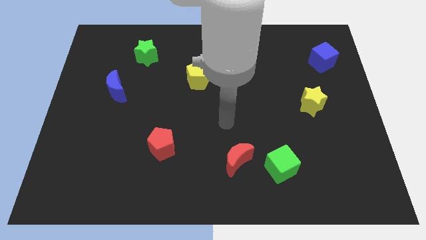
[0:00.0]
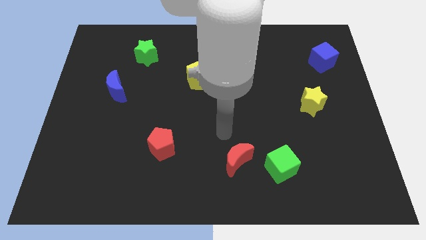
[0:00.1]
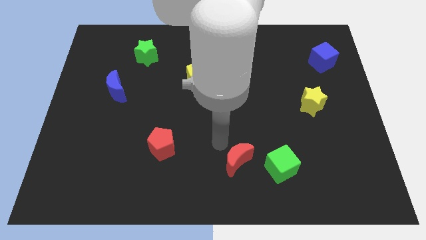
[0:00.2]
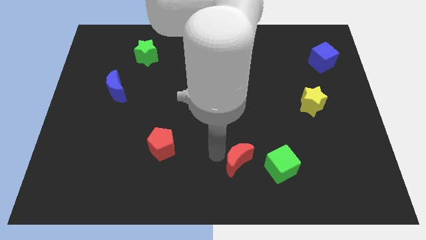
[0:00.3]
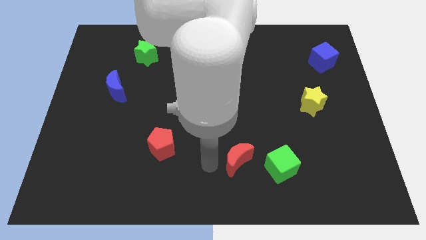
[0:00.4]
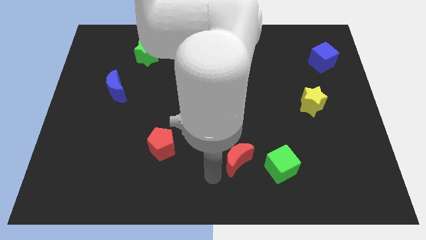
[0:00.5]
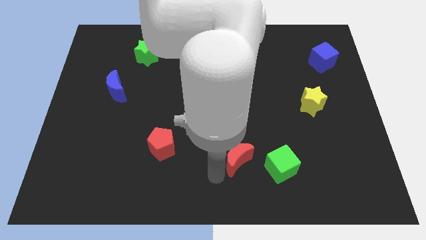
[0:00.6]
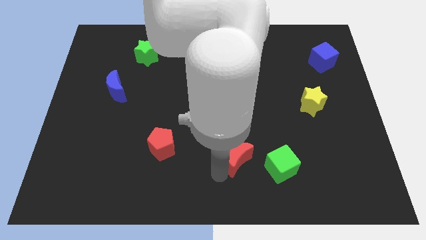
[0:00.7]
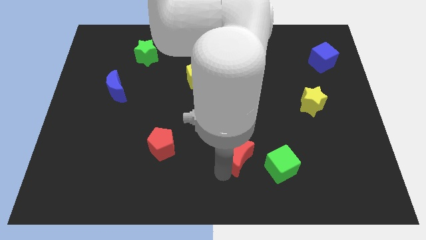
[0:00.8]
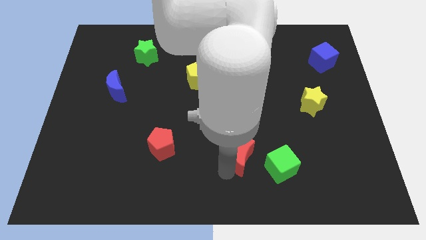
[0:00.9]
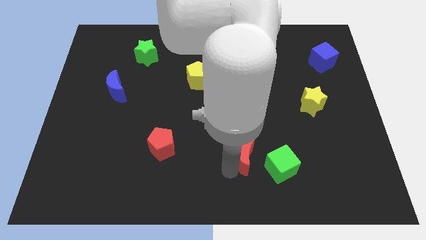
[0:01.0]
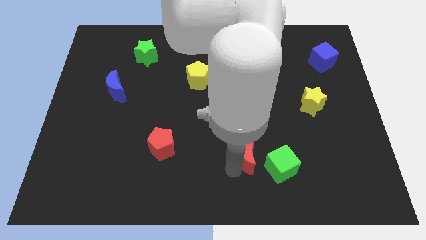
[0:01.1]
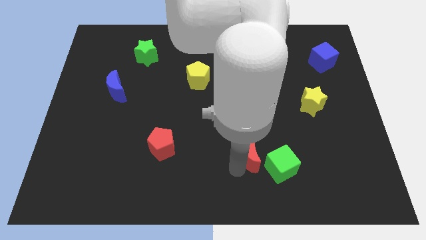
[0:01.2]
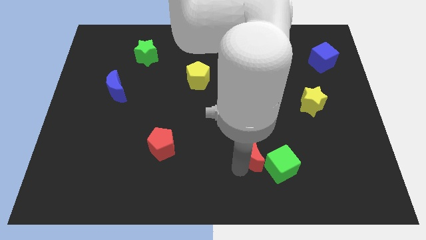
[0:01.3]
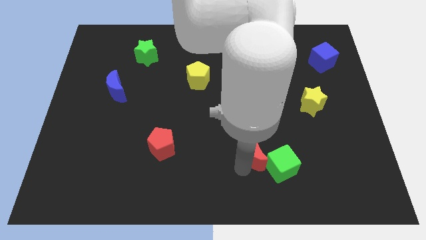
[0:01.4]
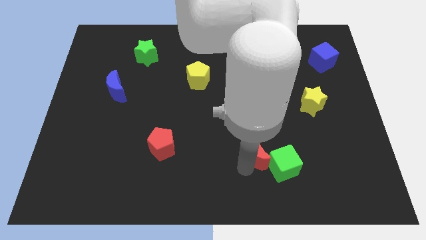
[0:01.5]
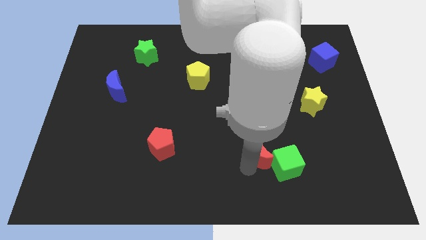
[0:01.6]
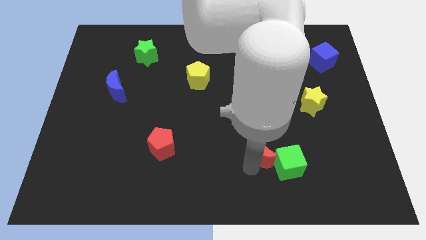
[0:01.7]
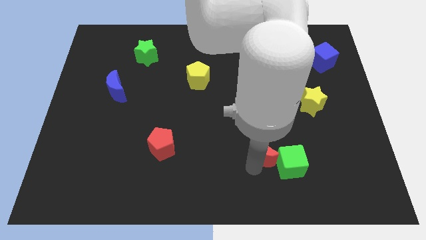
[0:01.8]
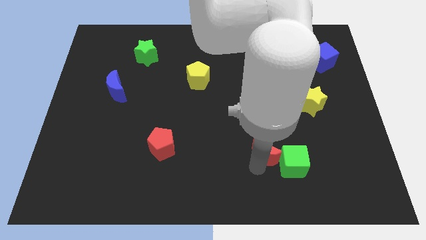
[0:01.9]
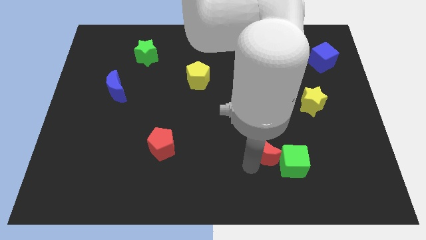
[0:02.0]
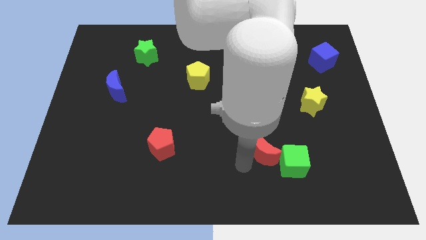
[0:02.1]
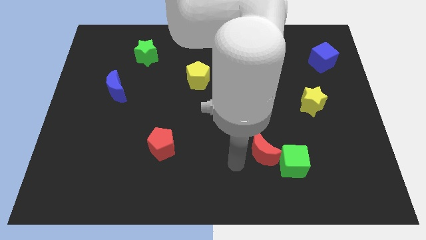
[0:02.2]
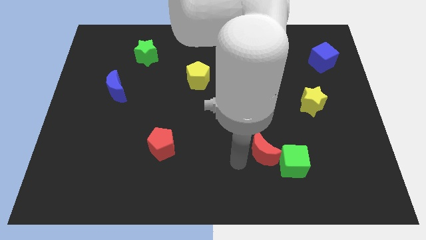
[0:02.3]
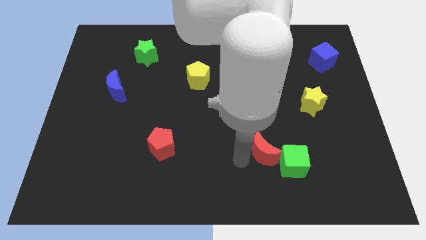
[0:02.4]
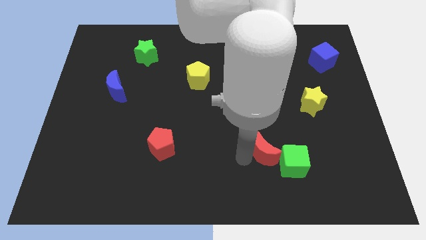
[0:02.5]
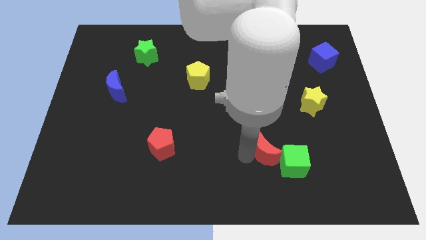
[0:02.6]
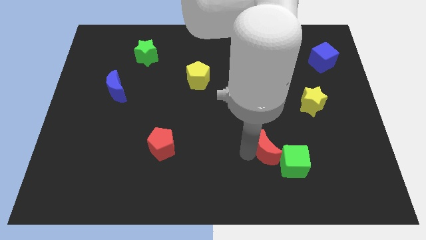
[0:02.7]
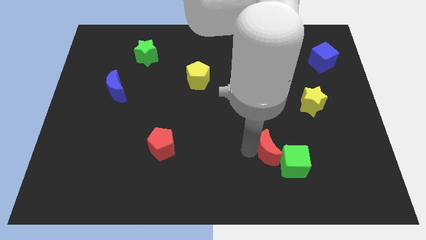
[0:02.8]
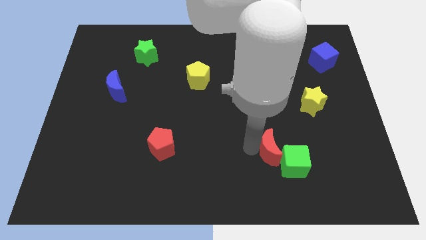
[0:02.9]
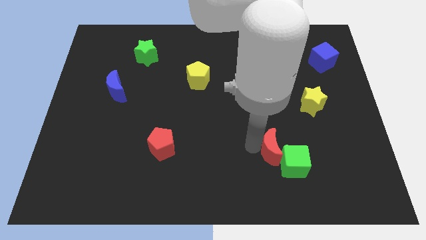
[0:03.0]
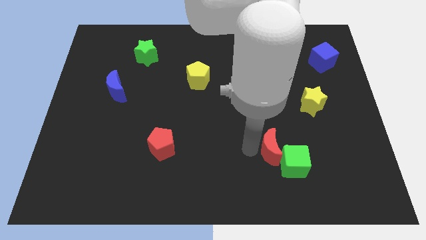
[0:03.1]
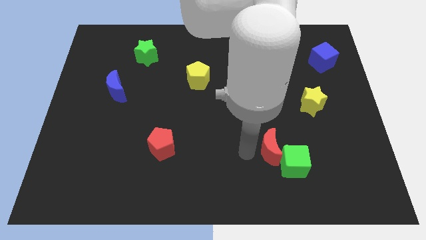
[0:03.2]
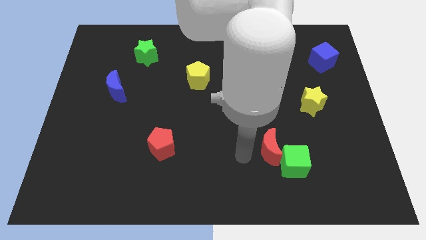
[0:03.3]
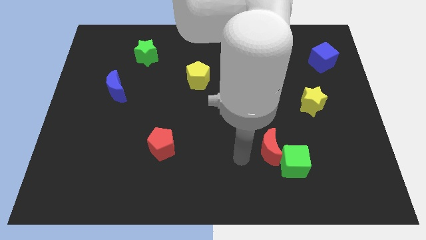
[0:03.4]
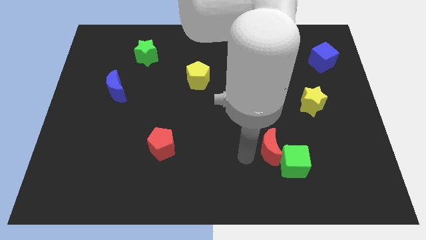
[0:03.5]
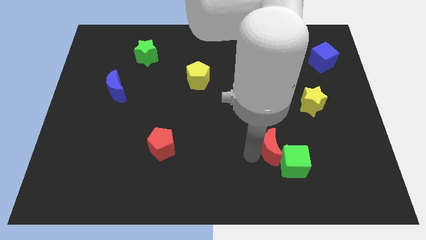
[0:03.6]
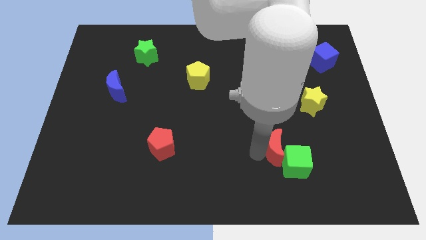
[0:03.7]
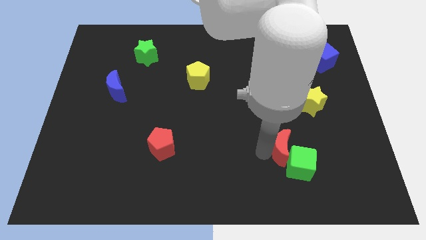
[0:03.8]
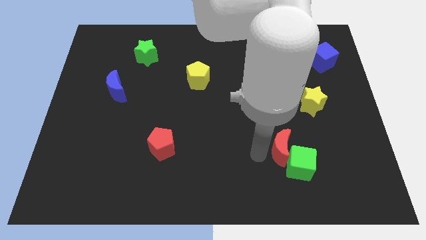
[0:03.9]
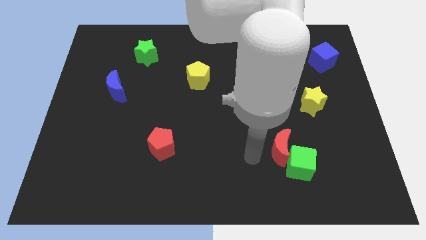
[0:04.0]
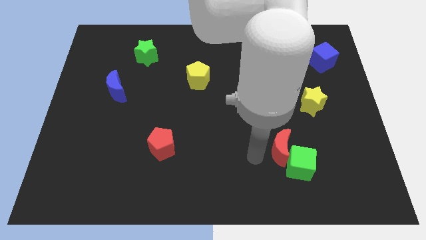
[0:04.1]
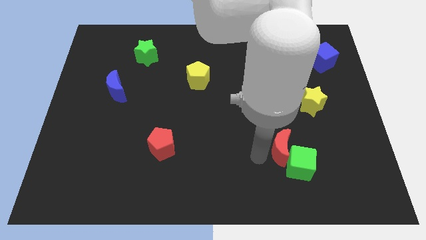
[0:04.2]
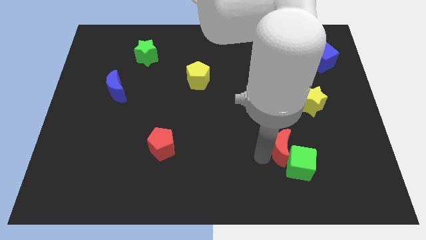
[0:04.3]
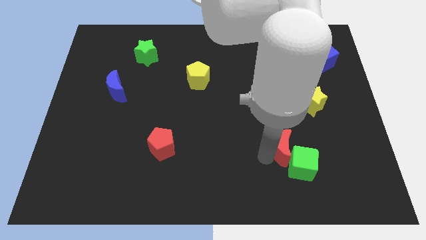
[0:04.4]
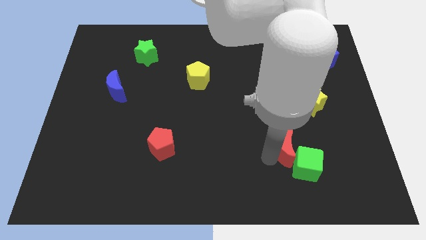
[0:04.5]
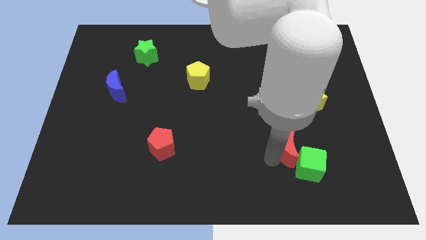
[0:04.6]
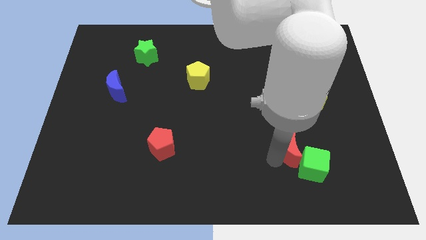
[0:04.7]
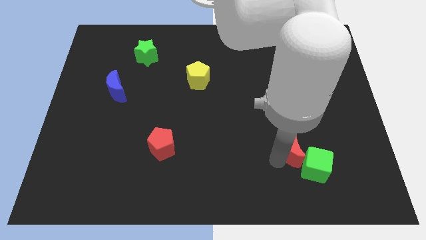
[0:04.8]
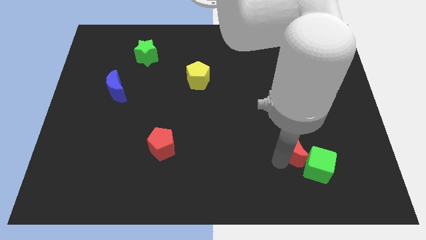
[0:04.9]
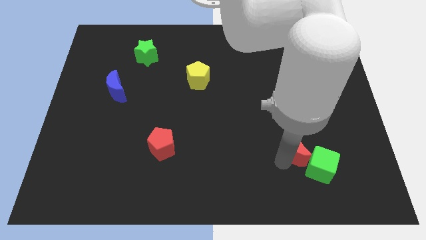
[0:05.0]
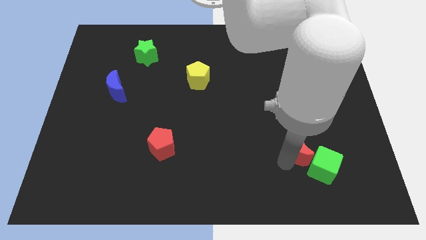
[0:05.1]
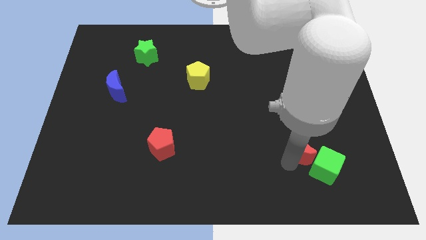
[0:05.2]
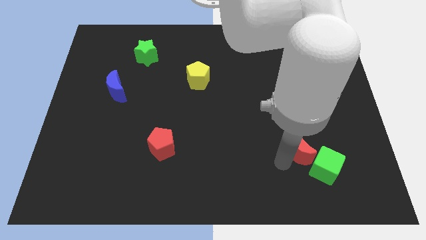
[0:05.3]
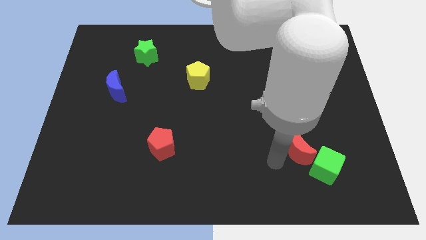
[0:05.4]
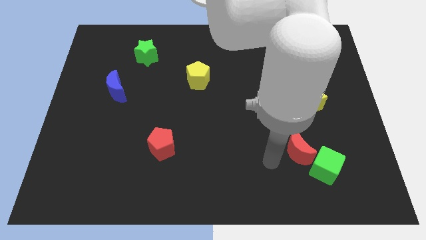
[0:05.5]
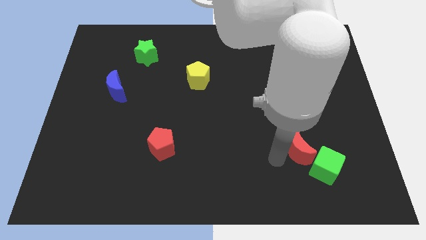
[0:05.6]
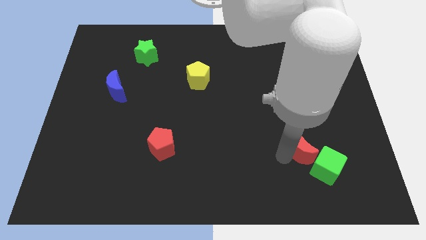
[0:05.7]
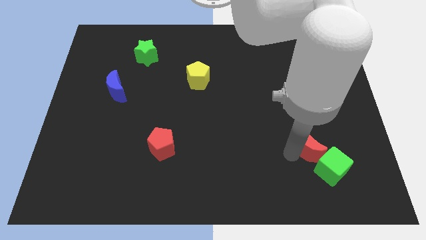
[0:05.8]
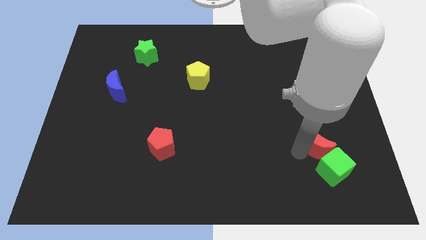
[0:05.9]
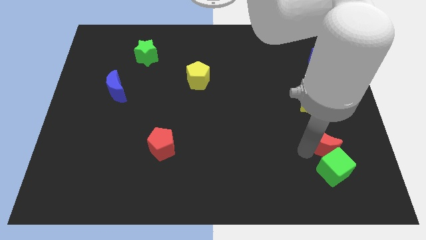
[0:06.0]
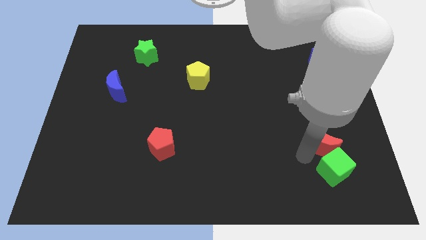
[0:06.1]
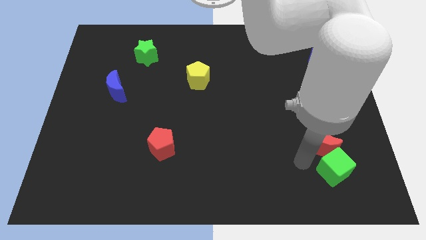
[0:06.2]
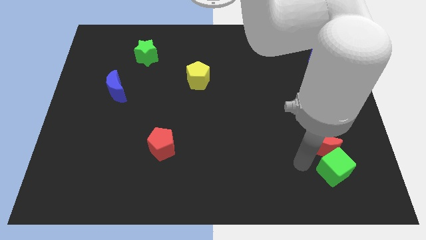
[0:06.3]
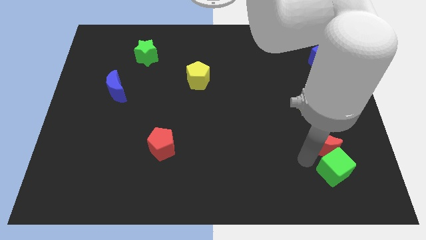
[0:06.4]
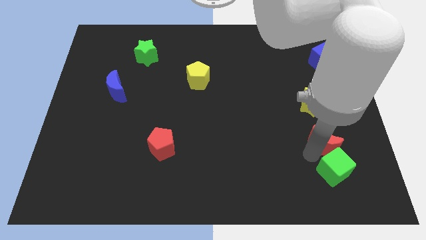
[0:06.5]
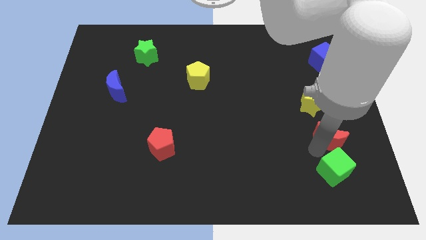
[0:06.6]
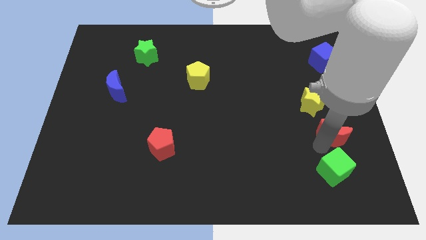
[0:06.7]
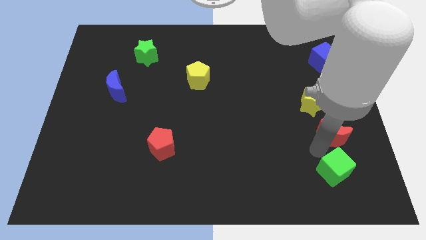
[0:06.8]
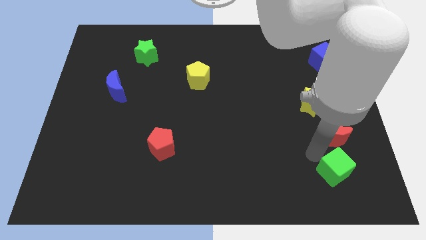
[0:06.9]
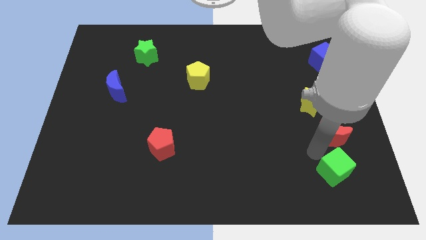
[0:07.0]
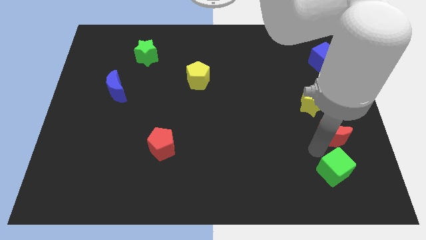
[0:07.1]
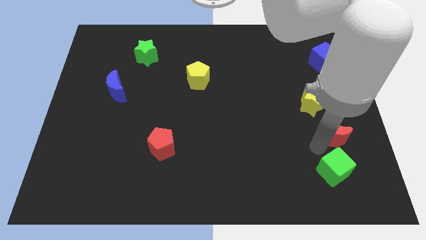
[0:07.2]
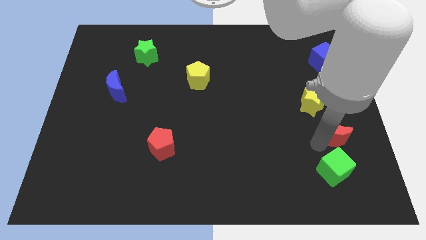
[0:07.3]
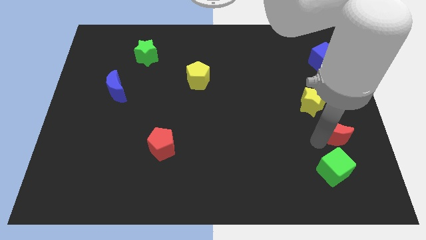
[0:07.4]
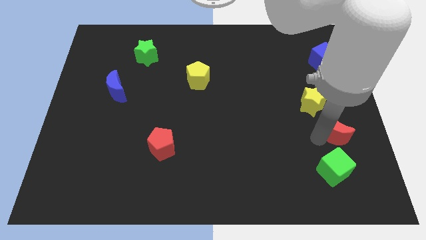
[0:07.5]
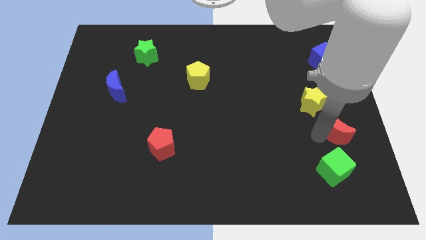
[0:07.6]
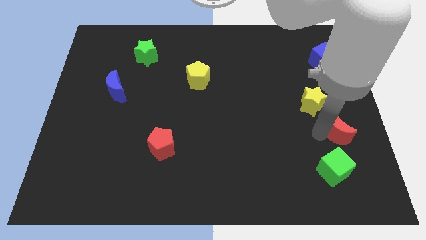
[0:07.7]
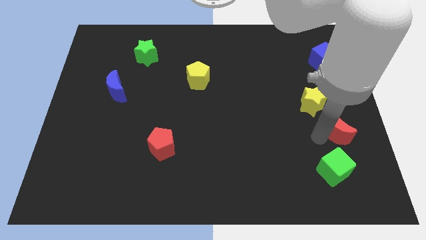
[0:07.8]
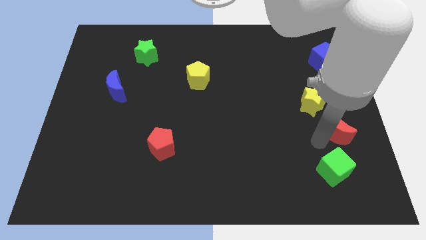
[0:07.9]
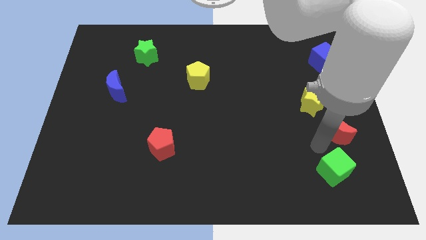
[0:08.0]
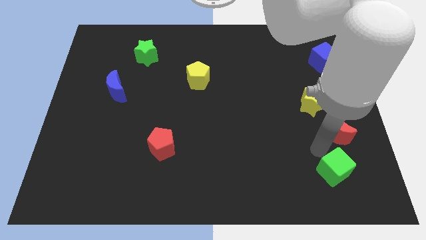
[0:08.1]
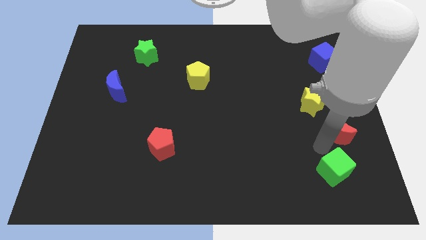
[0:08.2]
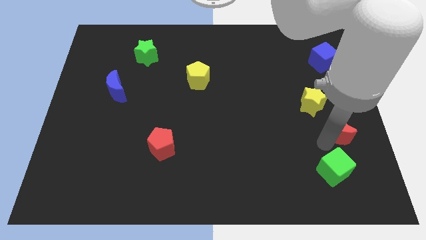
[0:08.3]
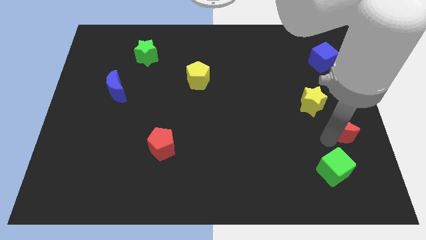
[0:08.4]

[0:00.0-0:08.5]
move the red moon to the right side
